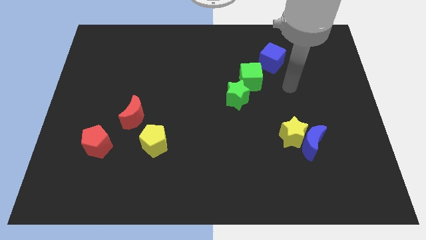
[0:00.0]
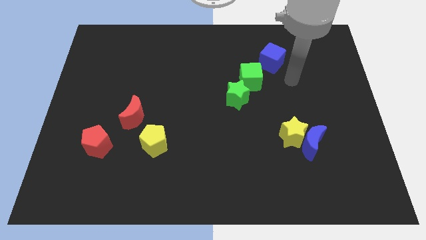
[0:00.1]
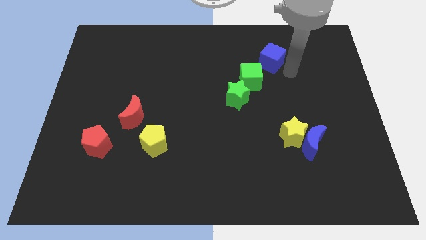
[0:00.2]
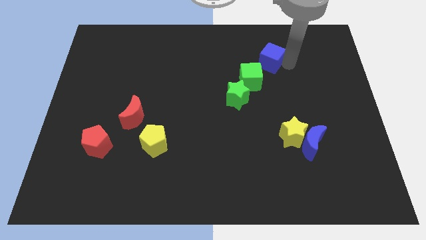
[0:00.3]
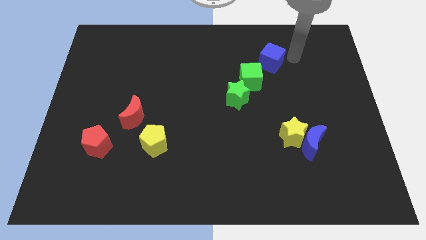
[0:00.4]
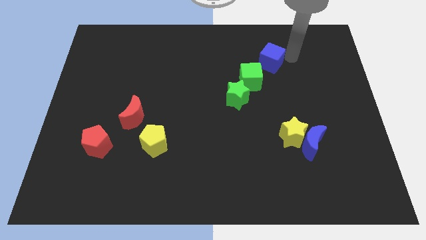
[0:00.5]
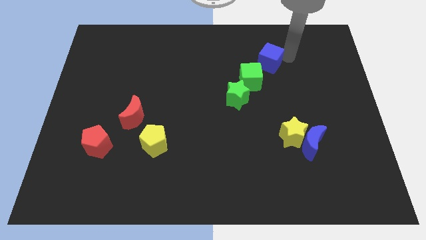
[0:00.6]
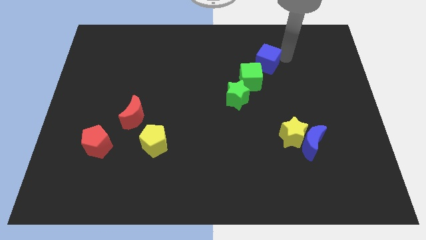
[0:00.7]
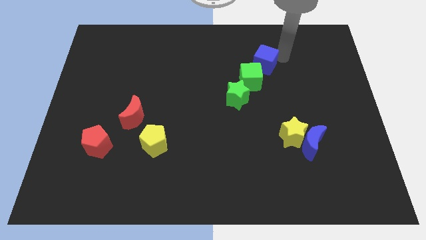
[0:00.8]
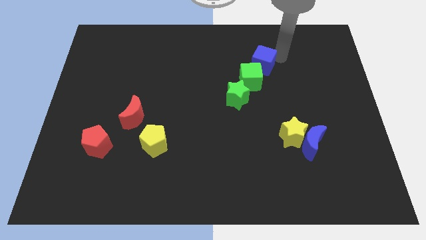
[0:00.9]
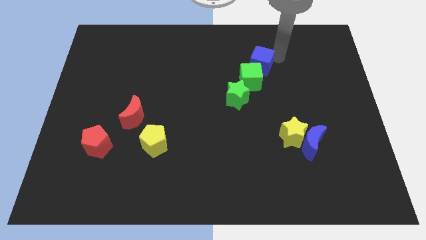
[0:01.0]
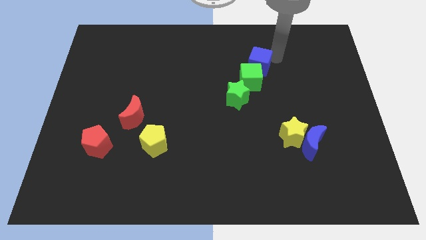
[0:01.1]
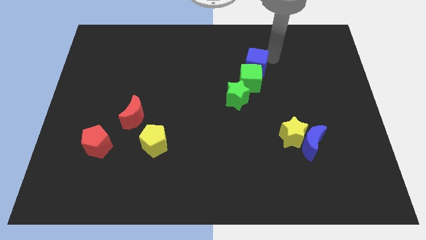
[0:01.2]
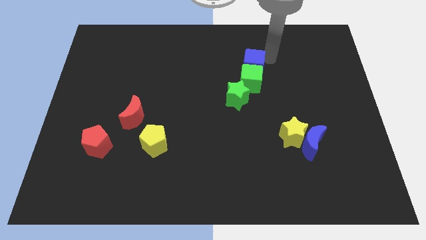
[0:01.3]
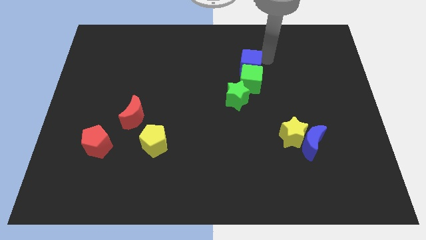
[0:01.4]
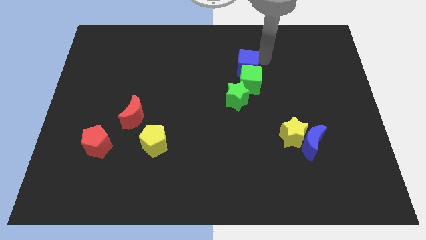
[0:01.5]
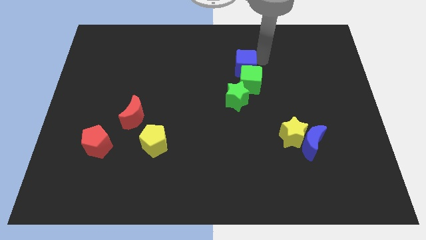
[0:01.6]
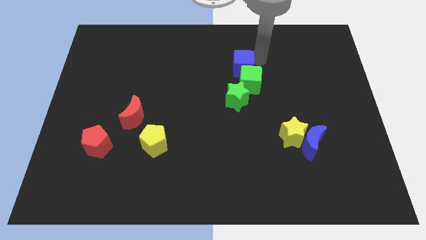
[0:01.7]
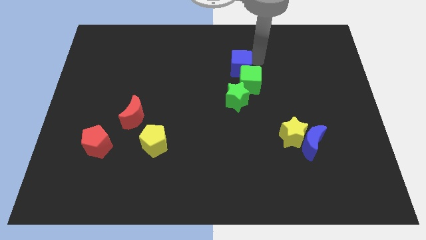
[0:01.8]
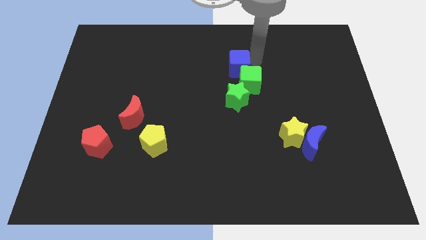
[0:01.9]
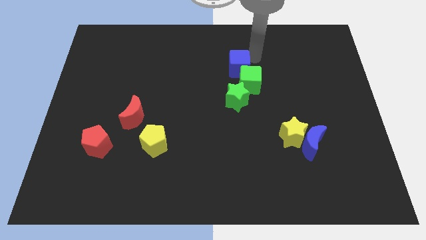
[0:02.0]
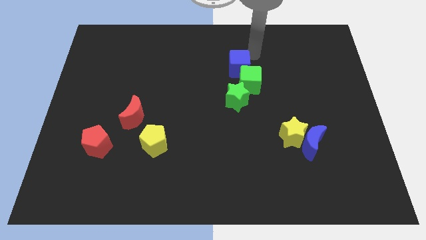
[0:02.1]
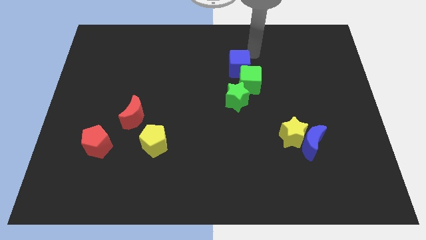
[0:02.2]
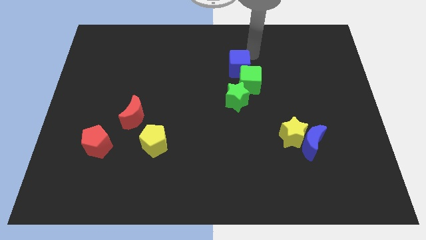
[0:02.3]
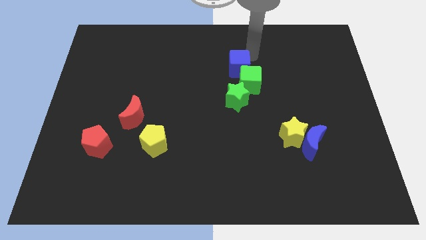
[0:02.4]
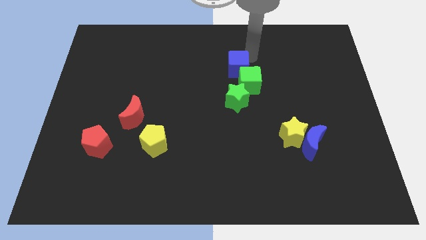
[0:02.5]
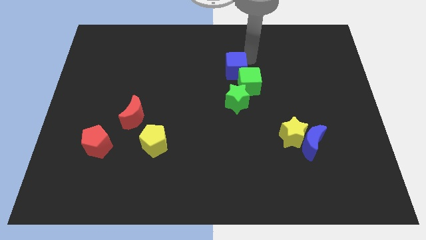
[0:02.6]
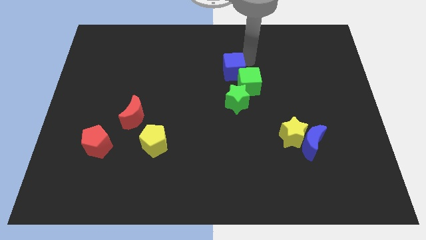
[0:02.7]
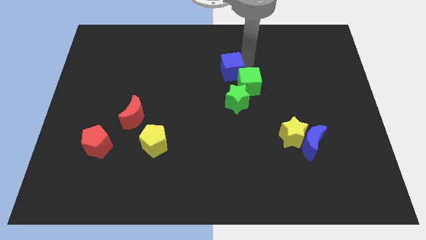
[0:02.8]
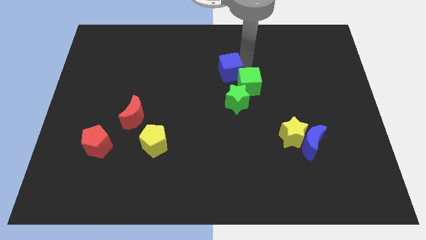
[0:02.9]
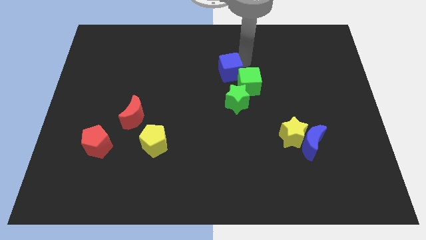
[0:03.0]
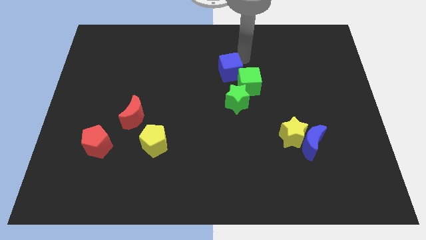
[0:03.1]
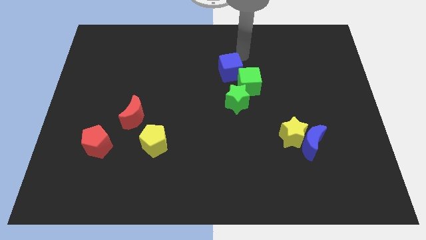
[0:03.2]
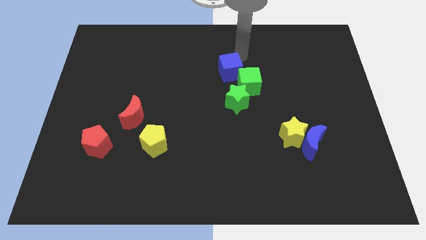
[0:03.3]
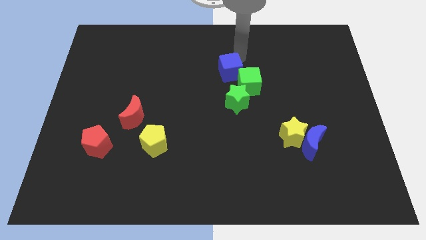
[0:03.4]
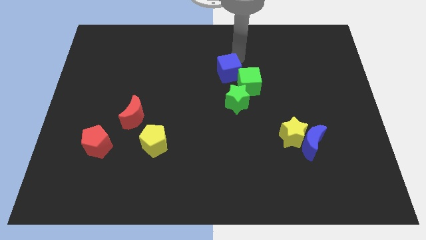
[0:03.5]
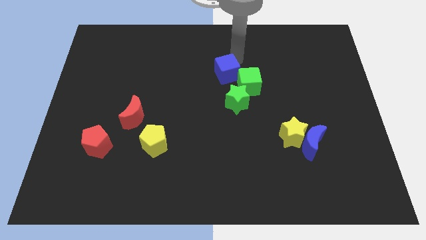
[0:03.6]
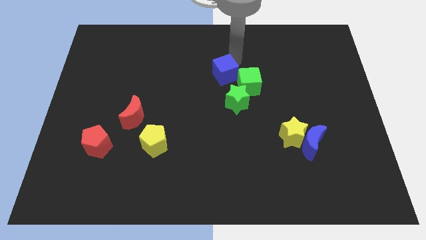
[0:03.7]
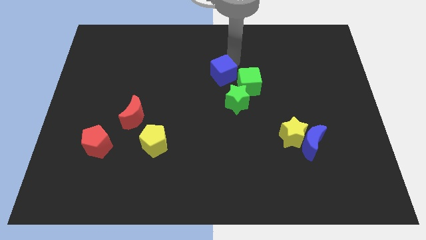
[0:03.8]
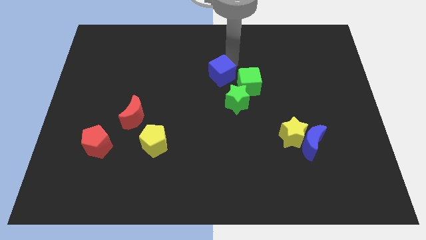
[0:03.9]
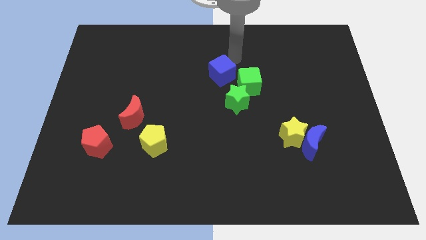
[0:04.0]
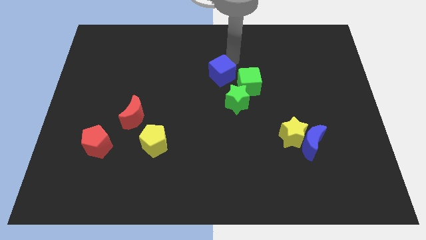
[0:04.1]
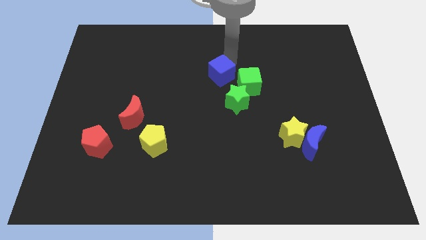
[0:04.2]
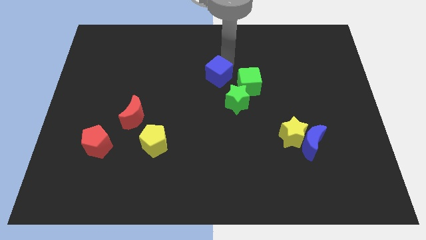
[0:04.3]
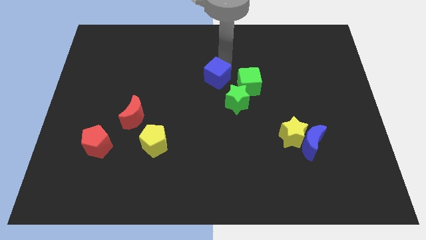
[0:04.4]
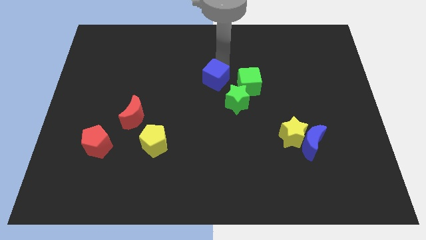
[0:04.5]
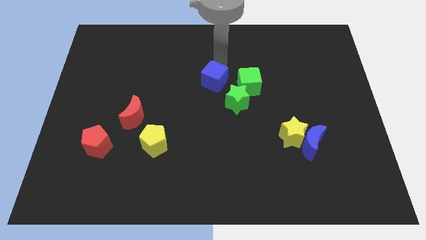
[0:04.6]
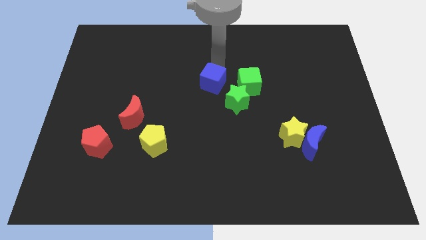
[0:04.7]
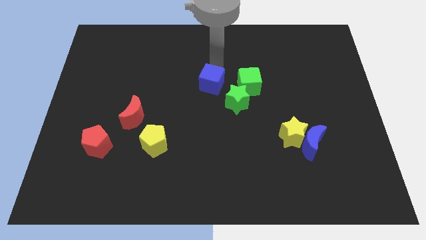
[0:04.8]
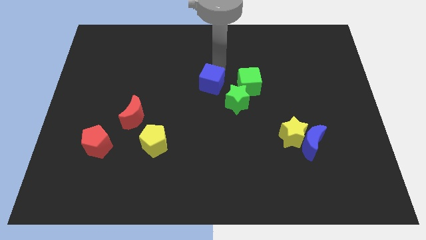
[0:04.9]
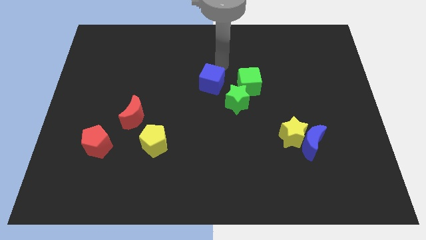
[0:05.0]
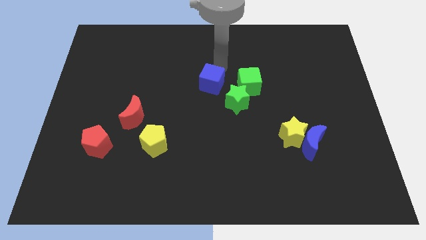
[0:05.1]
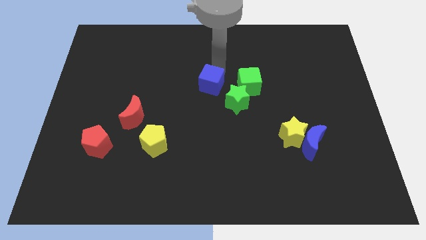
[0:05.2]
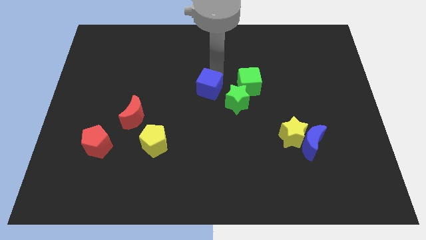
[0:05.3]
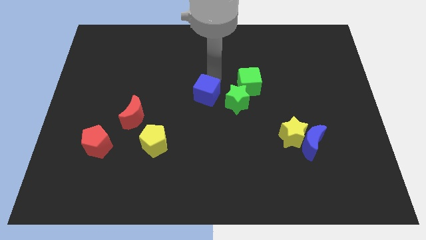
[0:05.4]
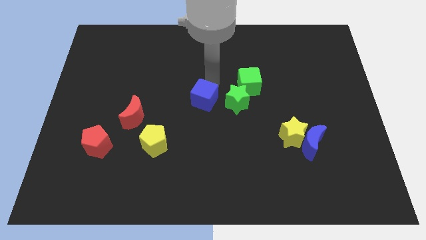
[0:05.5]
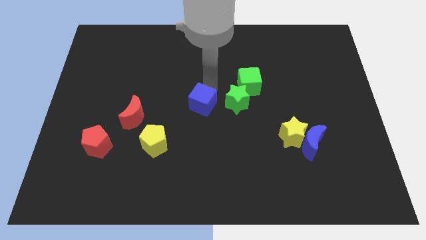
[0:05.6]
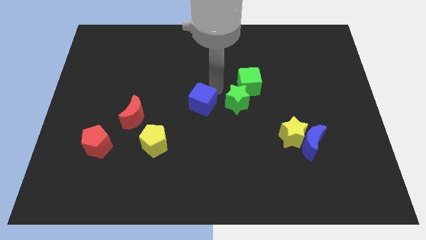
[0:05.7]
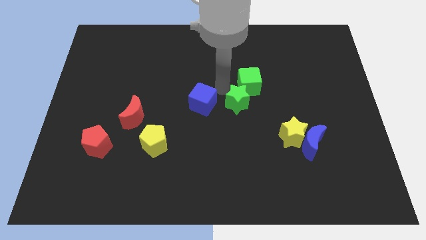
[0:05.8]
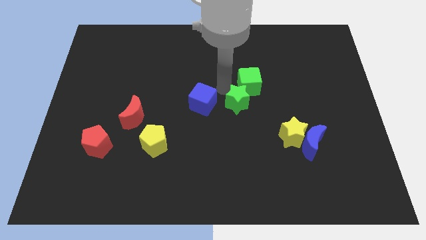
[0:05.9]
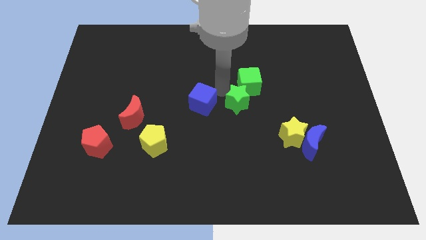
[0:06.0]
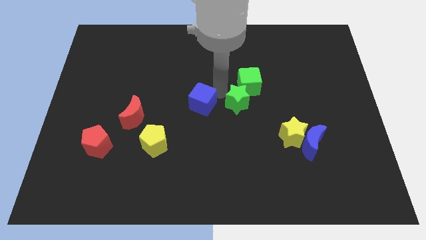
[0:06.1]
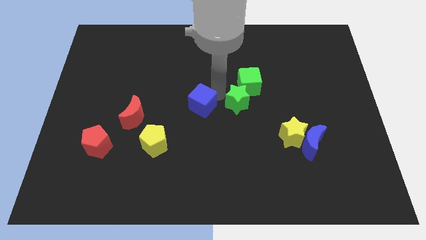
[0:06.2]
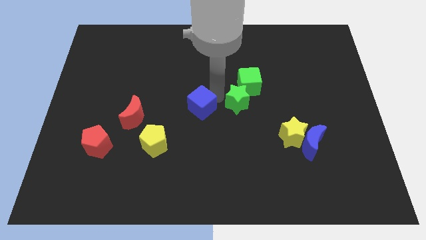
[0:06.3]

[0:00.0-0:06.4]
put the blue cube right of the red moon
